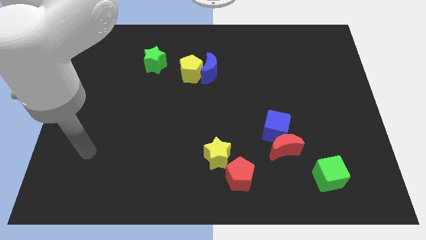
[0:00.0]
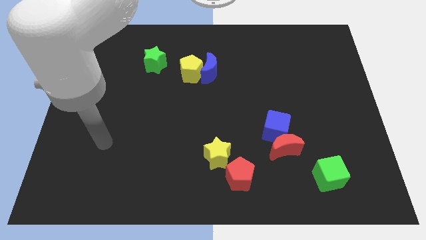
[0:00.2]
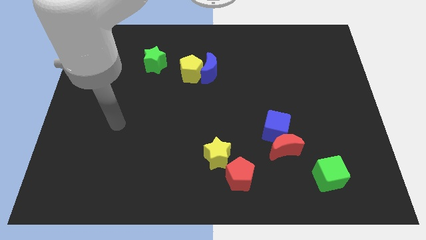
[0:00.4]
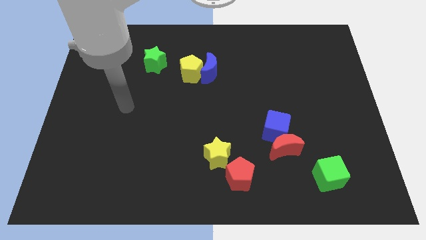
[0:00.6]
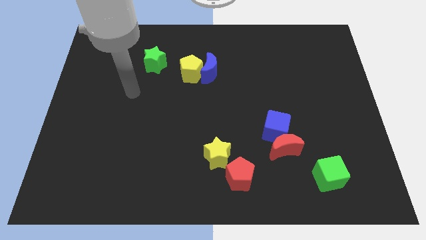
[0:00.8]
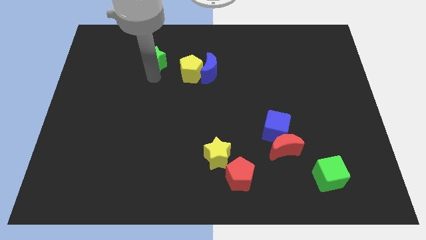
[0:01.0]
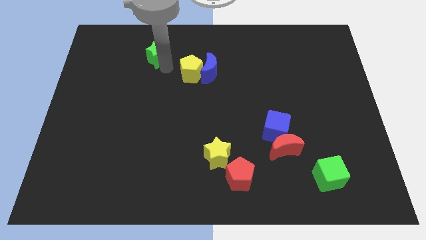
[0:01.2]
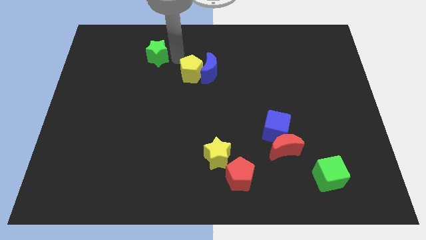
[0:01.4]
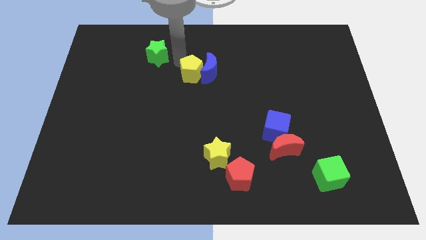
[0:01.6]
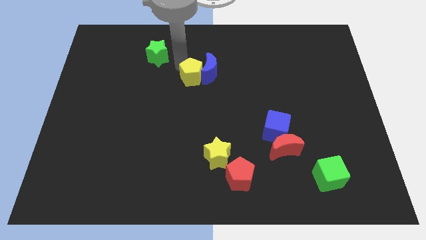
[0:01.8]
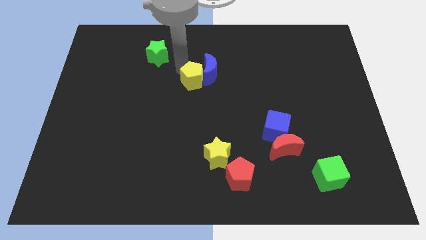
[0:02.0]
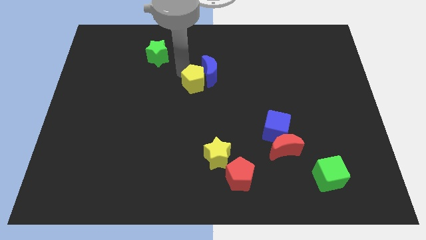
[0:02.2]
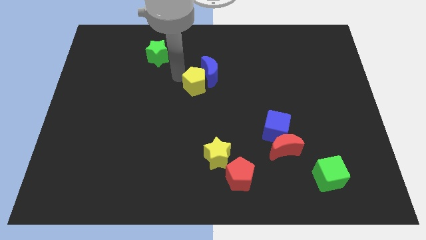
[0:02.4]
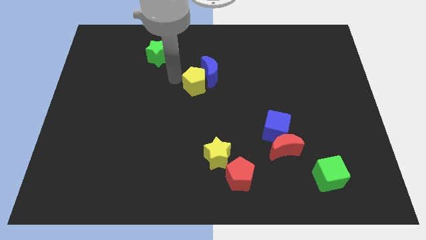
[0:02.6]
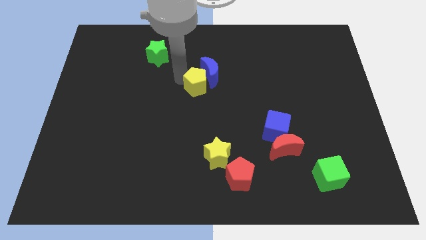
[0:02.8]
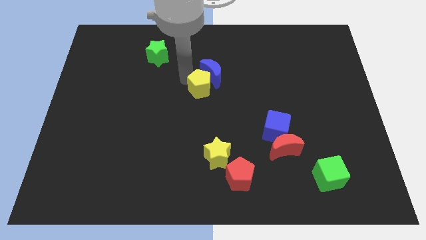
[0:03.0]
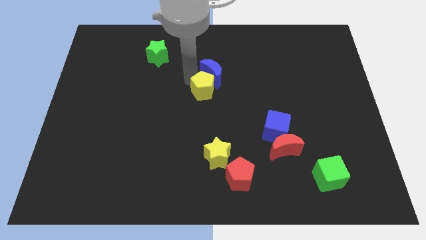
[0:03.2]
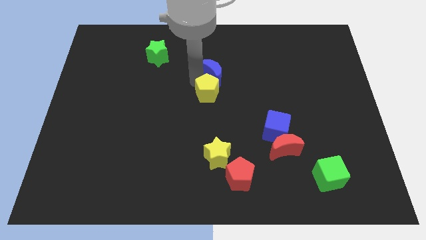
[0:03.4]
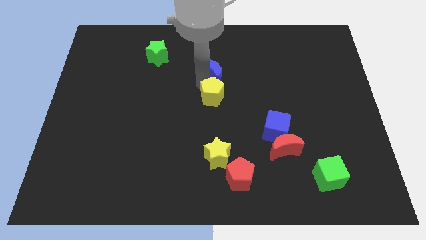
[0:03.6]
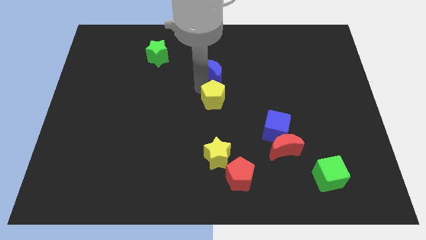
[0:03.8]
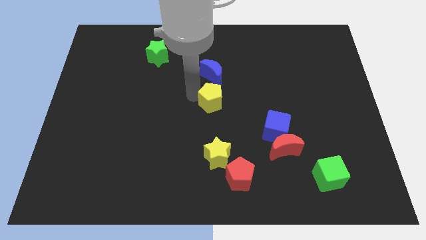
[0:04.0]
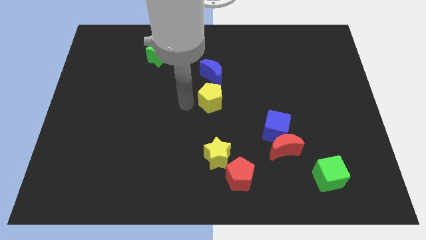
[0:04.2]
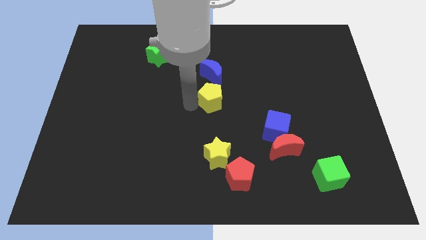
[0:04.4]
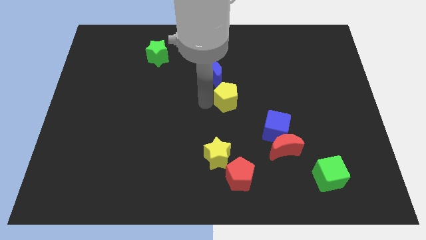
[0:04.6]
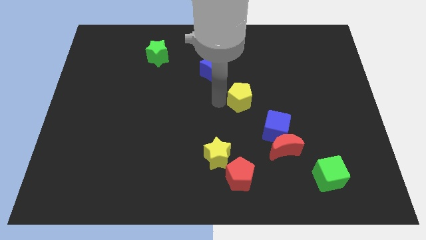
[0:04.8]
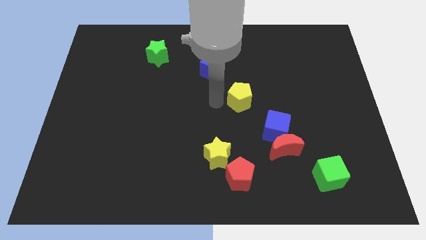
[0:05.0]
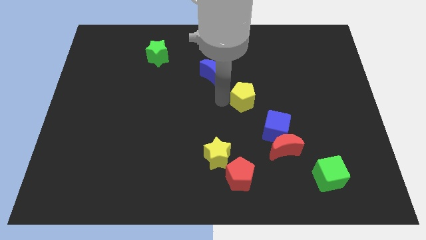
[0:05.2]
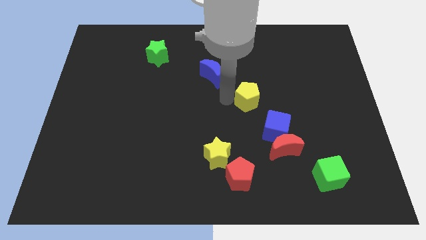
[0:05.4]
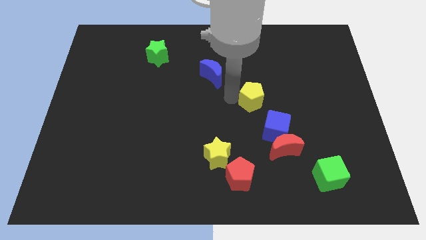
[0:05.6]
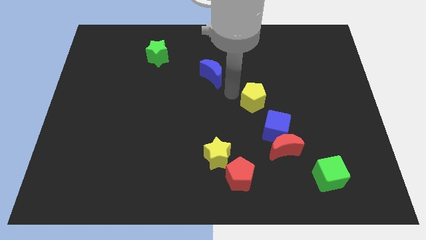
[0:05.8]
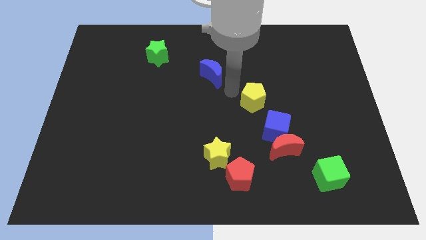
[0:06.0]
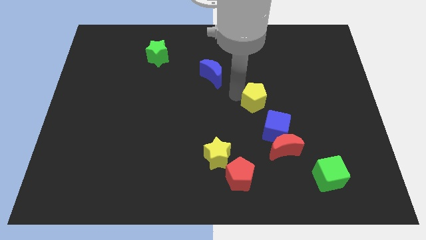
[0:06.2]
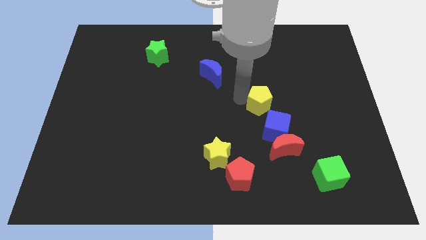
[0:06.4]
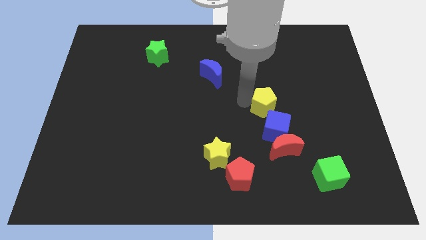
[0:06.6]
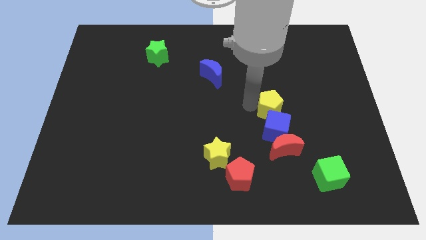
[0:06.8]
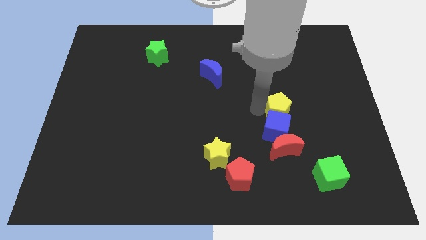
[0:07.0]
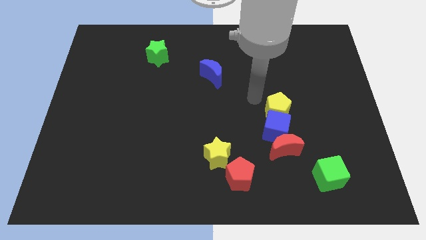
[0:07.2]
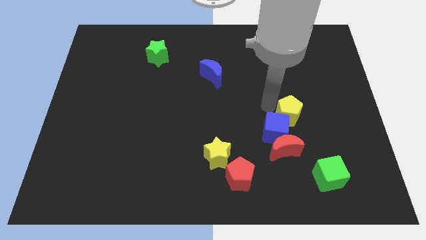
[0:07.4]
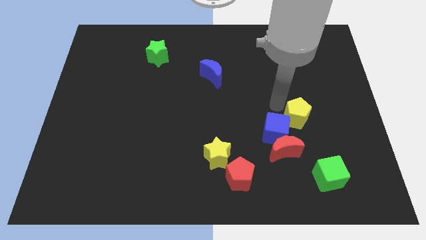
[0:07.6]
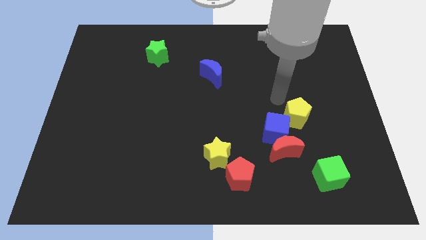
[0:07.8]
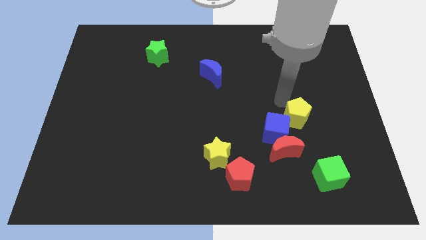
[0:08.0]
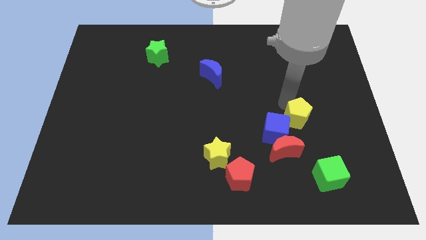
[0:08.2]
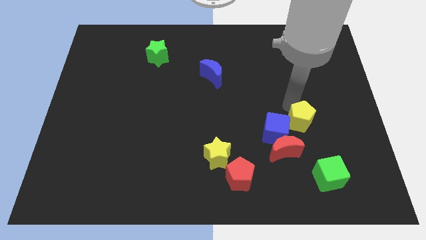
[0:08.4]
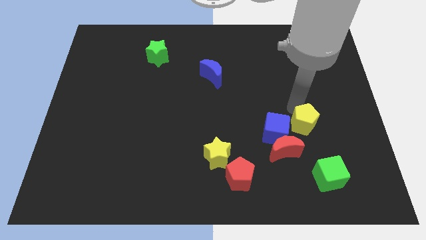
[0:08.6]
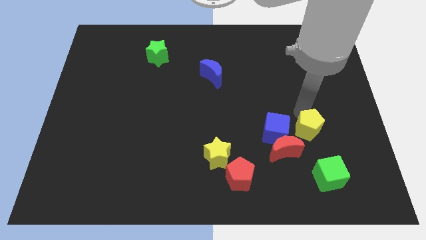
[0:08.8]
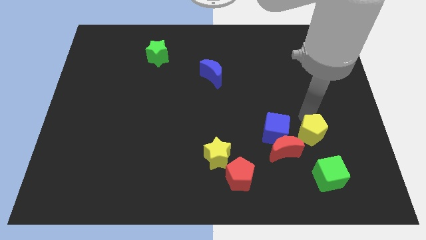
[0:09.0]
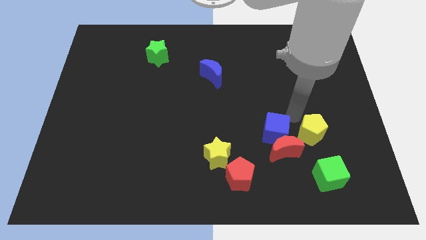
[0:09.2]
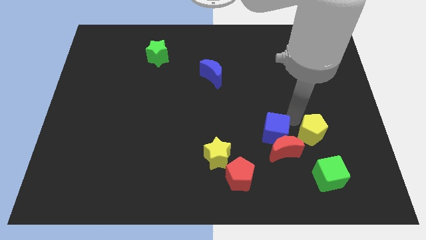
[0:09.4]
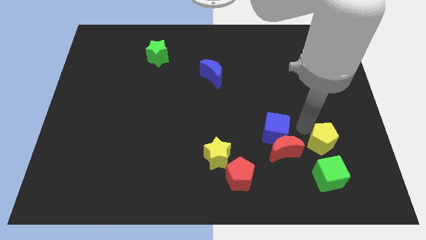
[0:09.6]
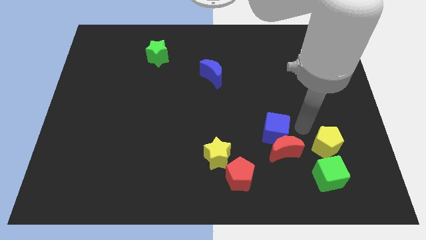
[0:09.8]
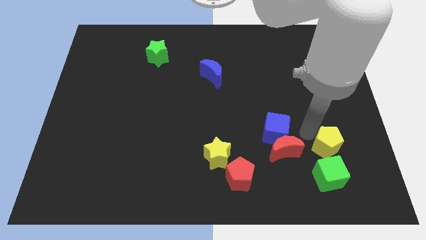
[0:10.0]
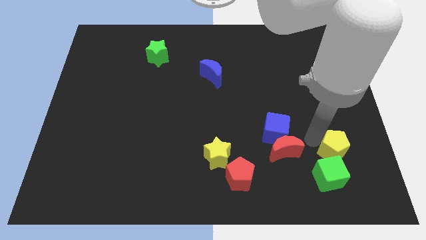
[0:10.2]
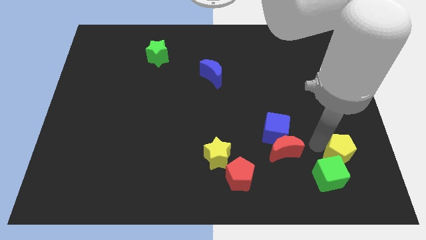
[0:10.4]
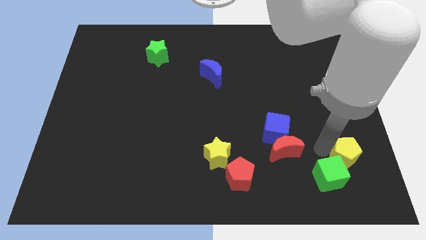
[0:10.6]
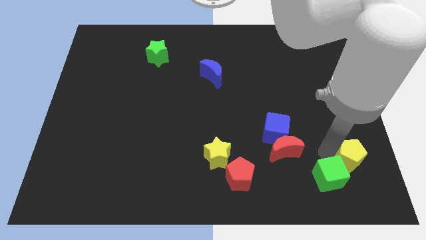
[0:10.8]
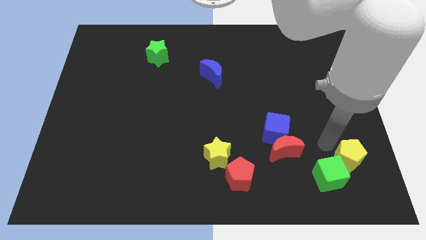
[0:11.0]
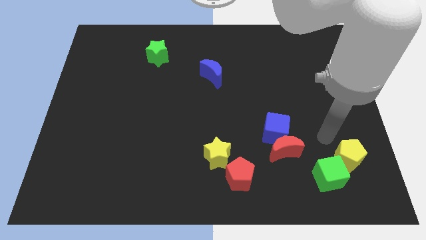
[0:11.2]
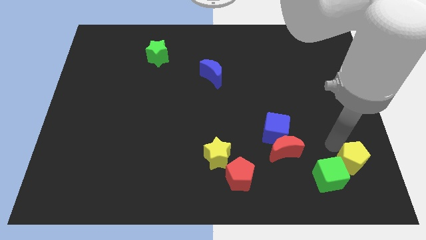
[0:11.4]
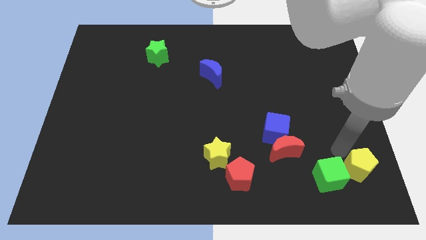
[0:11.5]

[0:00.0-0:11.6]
push the yellow pentagon to the bottom right
